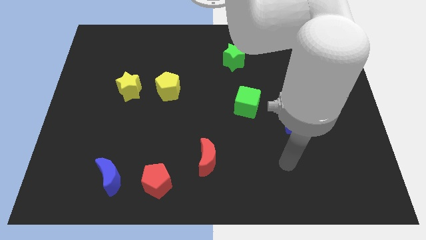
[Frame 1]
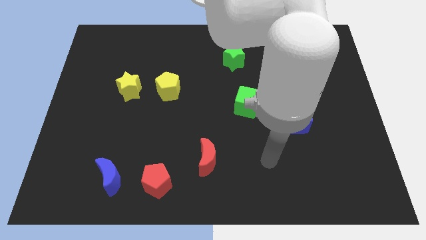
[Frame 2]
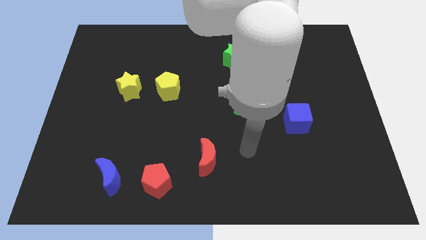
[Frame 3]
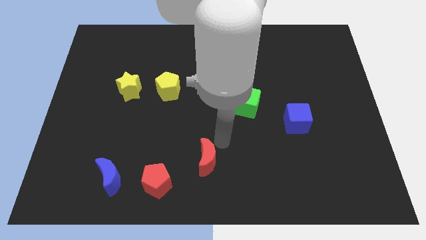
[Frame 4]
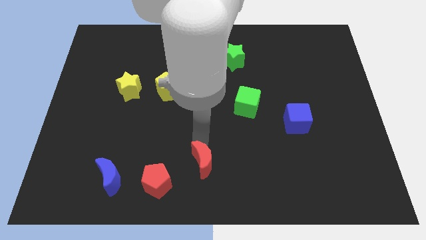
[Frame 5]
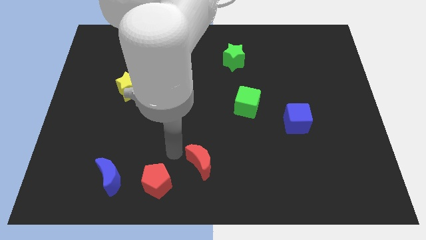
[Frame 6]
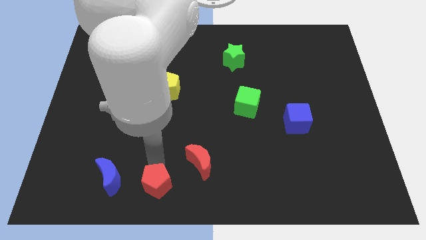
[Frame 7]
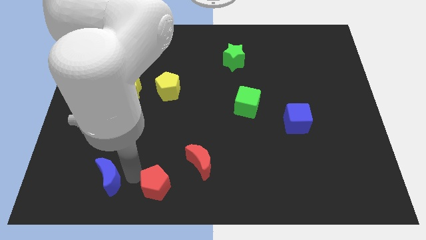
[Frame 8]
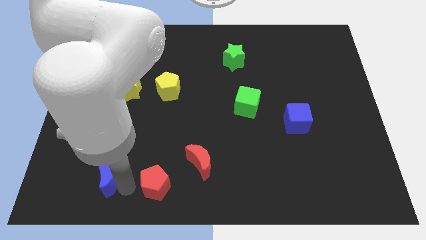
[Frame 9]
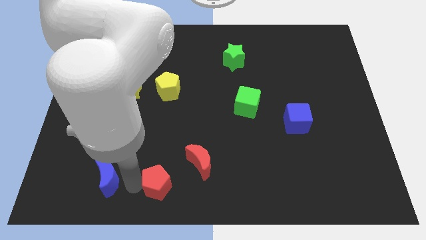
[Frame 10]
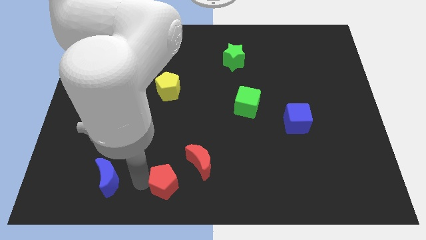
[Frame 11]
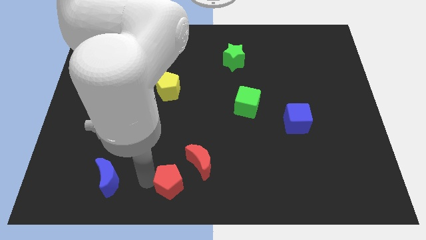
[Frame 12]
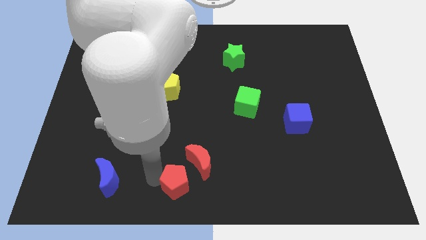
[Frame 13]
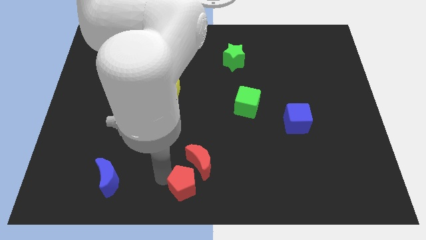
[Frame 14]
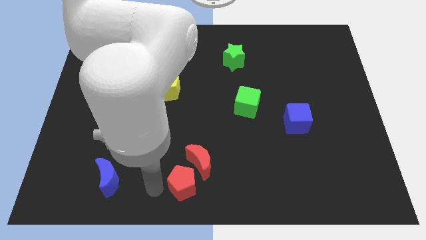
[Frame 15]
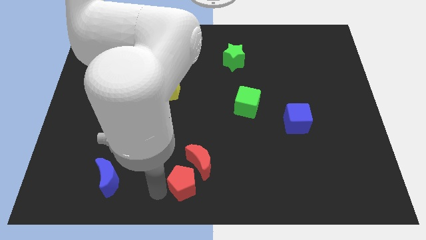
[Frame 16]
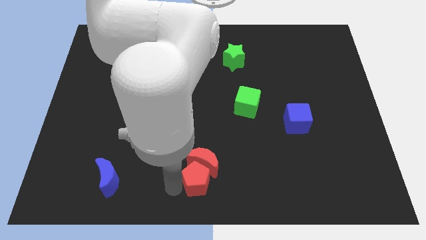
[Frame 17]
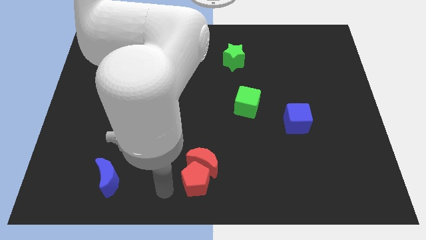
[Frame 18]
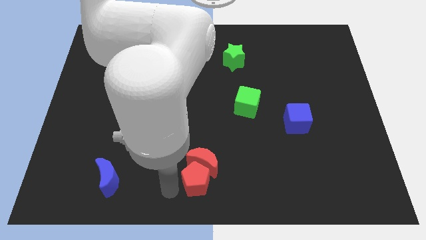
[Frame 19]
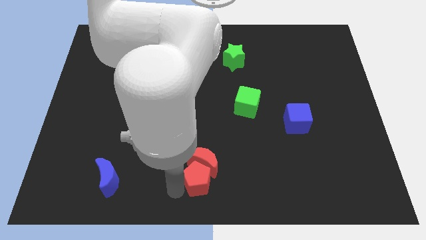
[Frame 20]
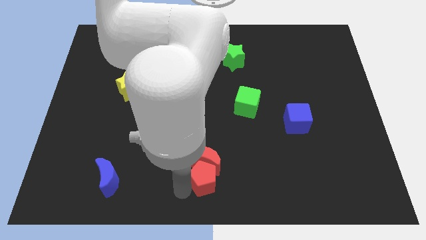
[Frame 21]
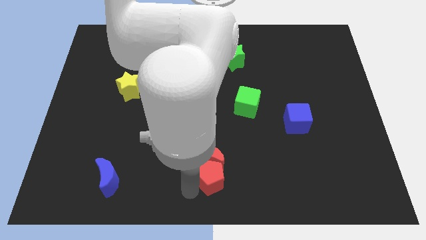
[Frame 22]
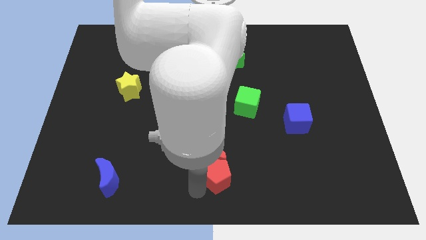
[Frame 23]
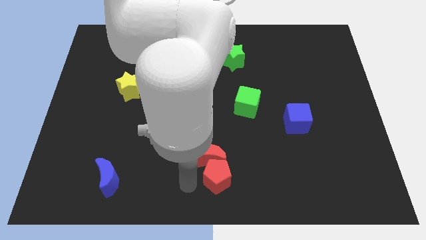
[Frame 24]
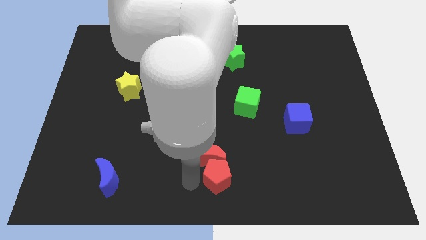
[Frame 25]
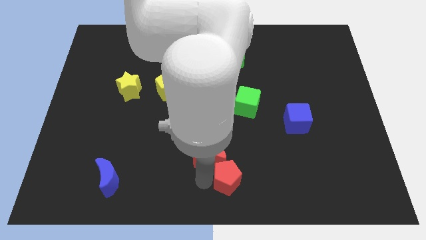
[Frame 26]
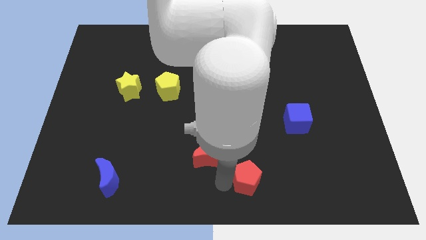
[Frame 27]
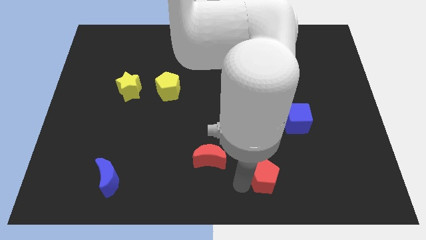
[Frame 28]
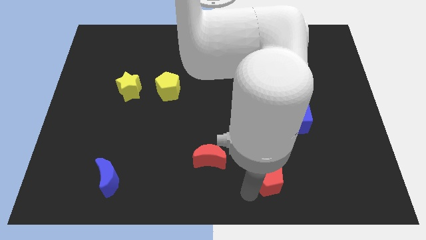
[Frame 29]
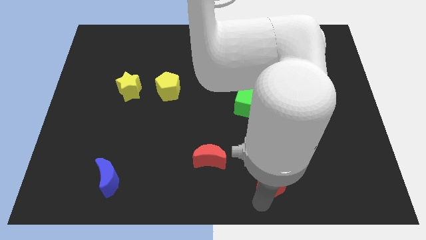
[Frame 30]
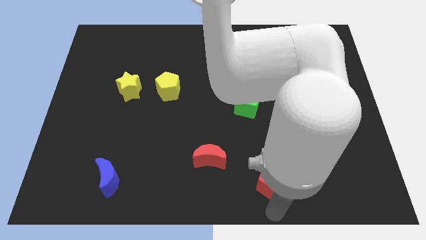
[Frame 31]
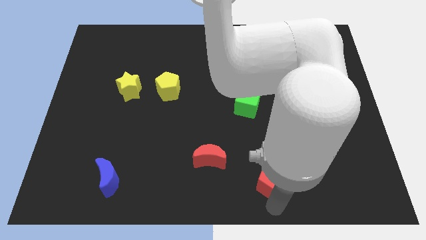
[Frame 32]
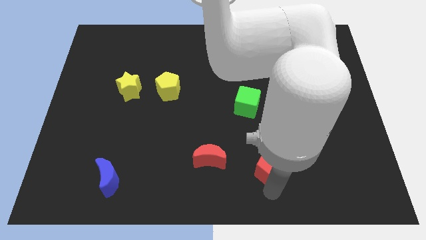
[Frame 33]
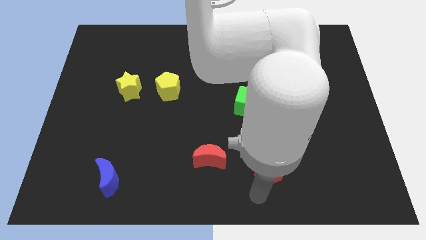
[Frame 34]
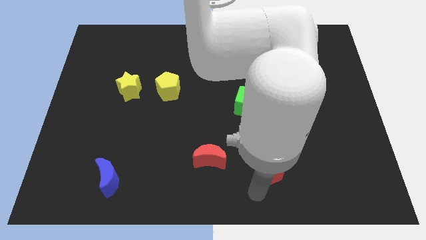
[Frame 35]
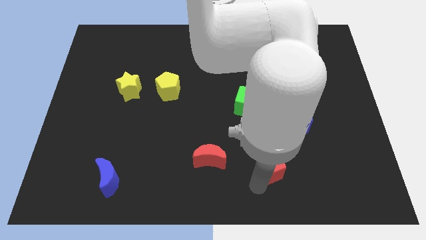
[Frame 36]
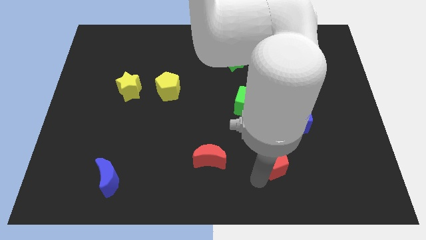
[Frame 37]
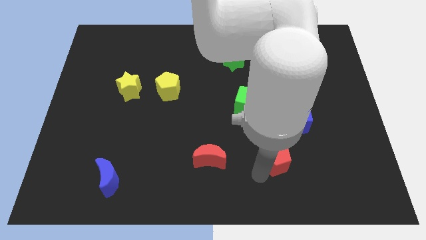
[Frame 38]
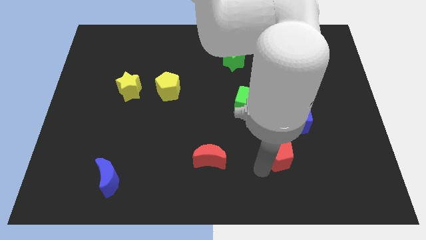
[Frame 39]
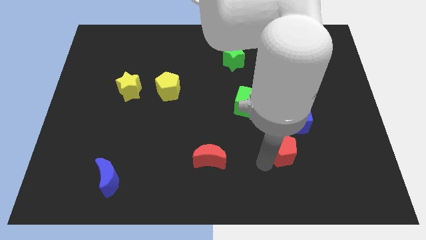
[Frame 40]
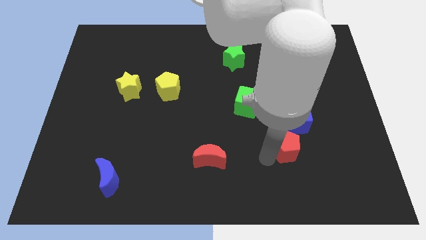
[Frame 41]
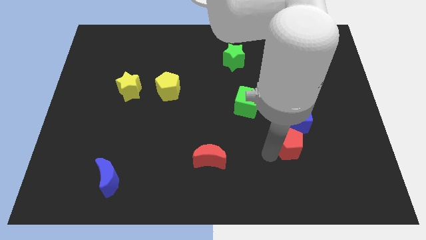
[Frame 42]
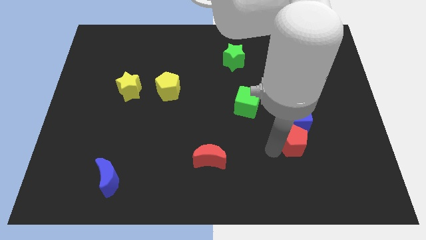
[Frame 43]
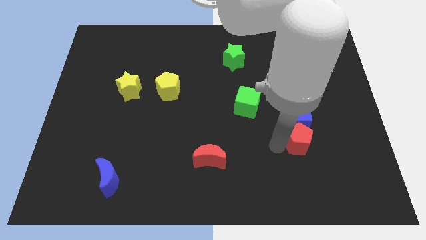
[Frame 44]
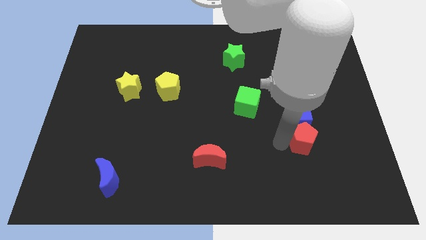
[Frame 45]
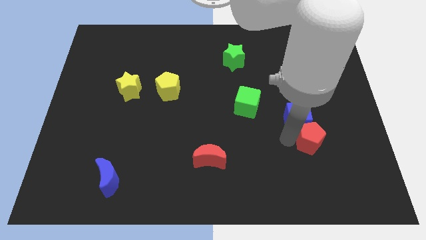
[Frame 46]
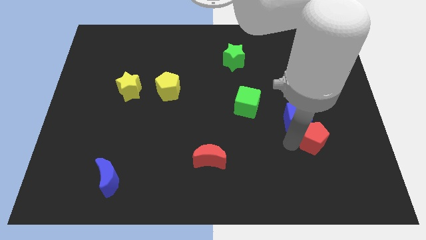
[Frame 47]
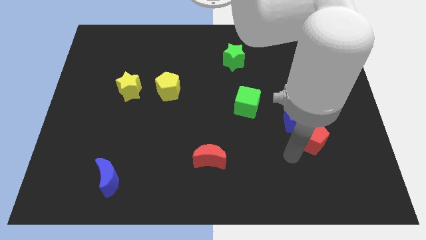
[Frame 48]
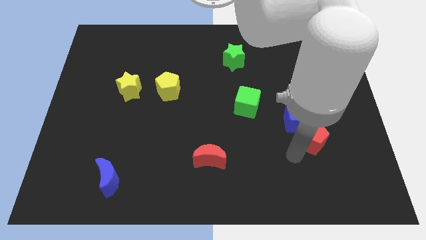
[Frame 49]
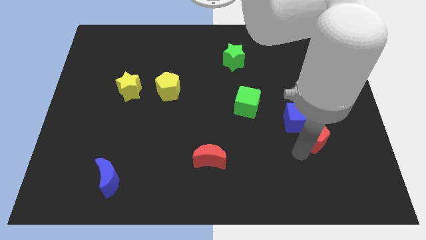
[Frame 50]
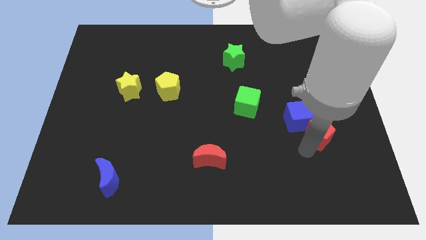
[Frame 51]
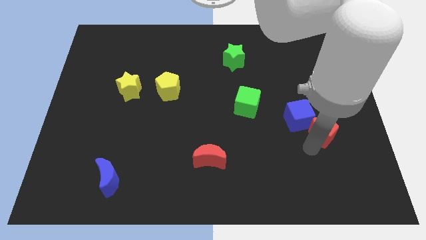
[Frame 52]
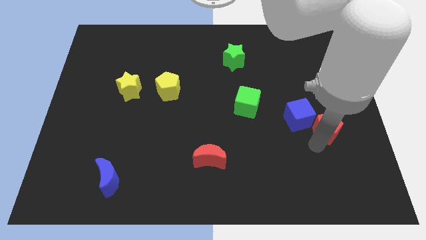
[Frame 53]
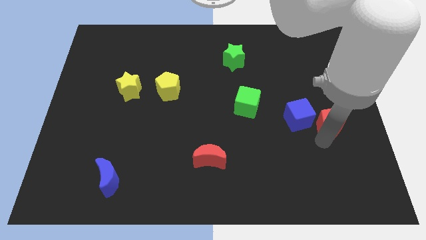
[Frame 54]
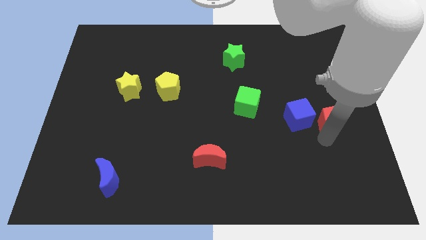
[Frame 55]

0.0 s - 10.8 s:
put the red pentagon to the right side of the board
